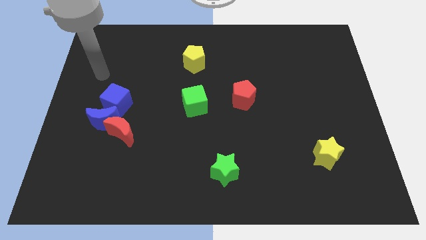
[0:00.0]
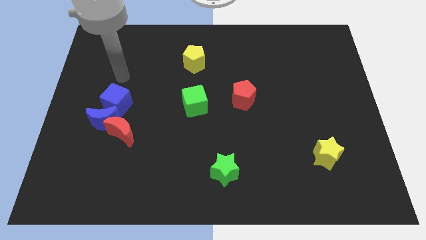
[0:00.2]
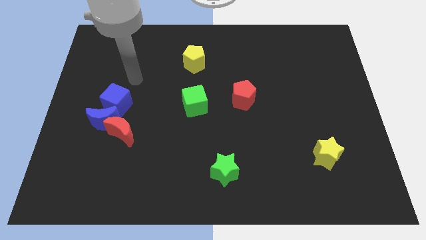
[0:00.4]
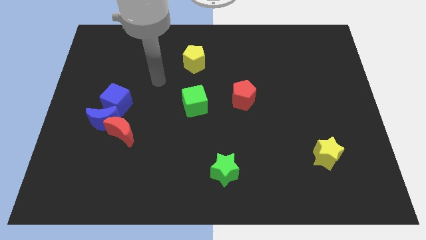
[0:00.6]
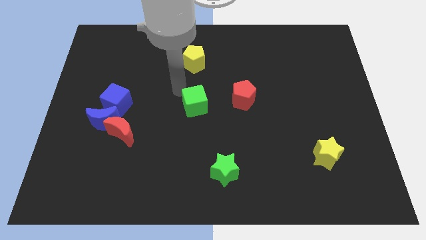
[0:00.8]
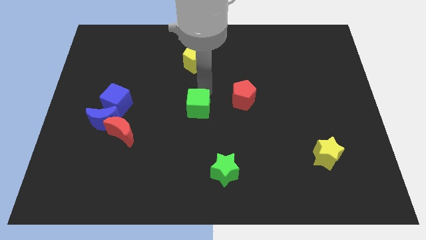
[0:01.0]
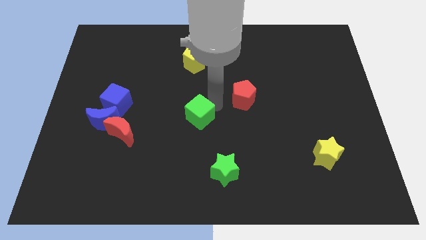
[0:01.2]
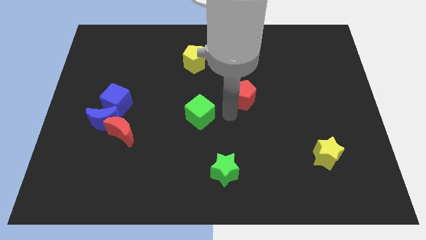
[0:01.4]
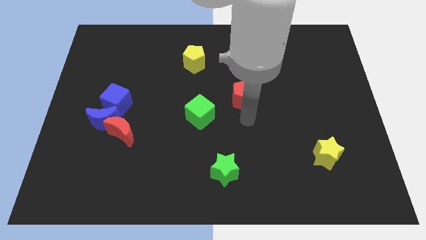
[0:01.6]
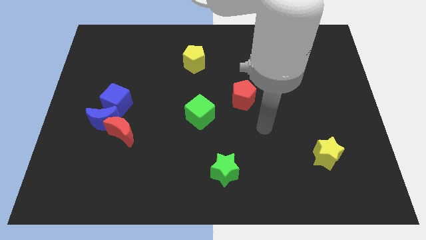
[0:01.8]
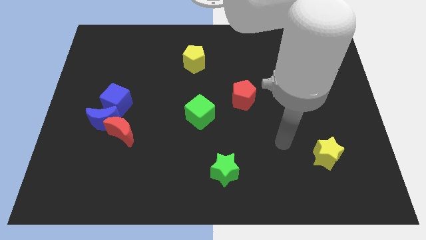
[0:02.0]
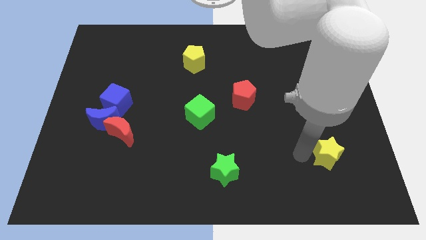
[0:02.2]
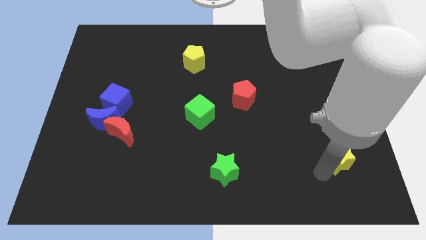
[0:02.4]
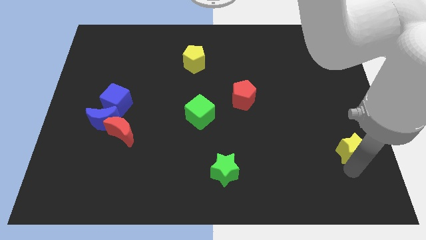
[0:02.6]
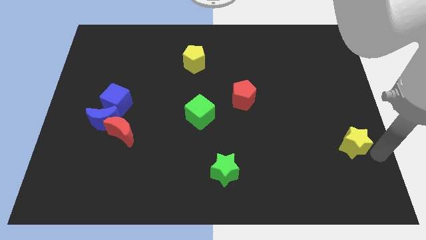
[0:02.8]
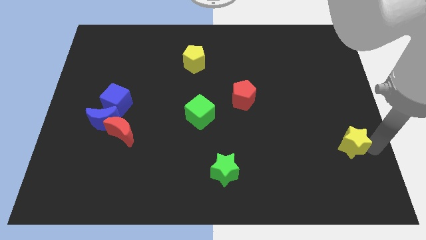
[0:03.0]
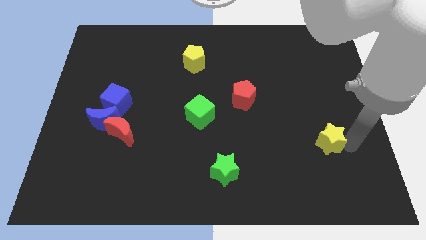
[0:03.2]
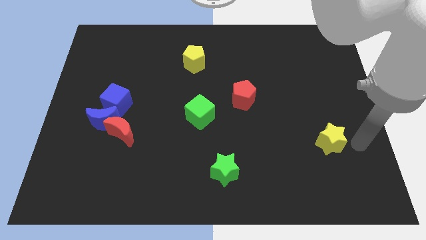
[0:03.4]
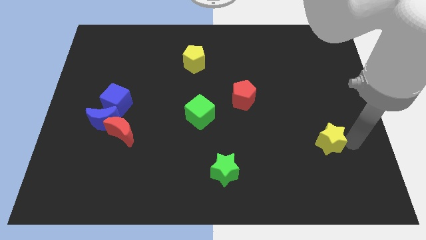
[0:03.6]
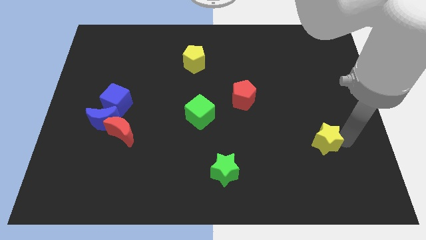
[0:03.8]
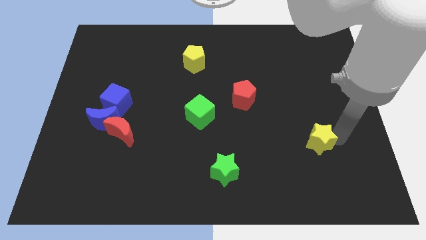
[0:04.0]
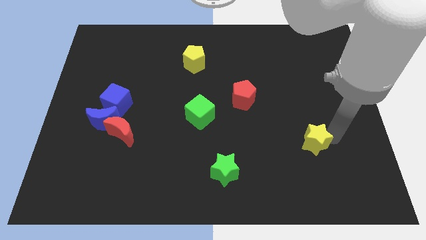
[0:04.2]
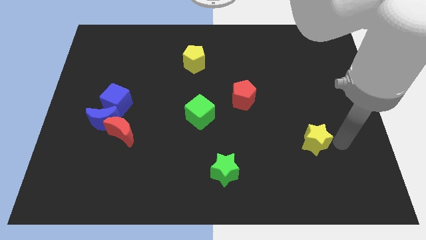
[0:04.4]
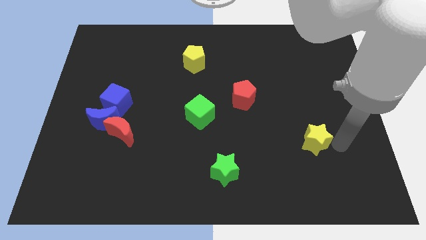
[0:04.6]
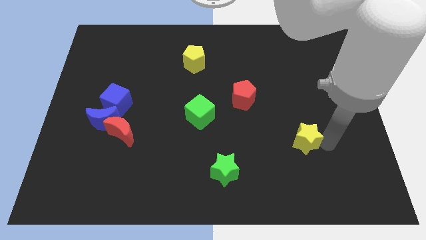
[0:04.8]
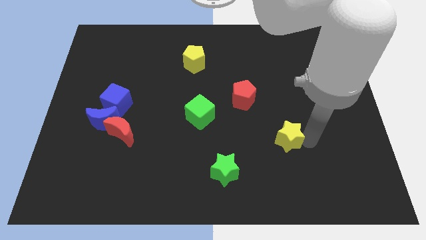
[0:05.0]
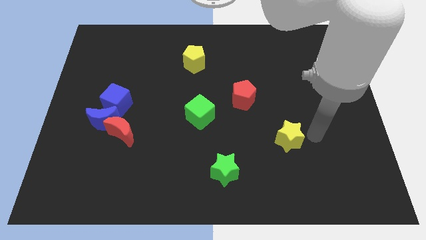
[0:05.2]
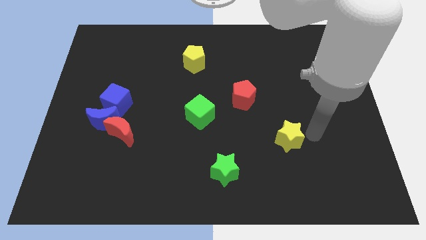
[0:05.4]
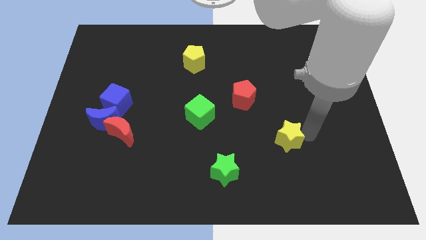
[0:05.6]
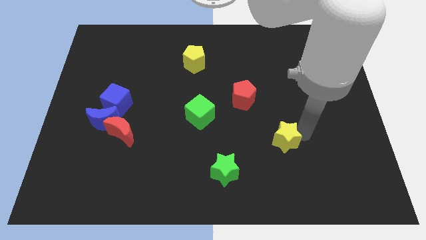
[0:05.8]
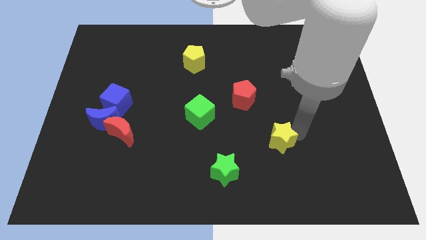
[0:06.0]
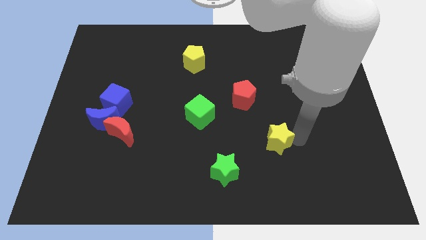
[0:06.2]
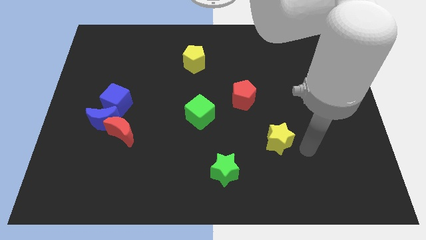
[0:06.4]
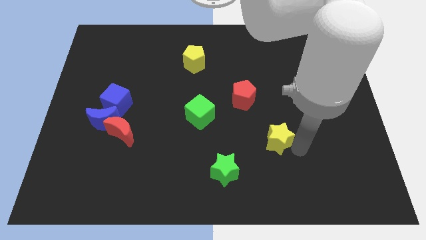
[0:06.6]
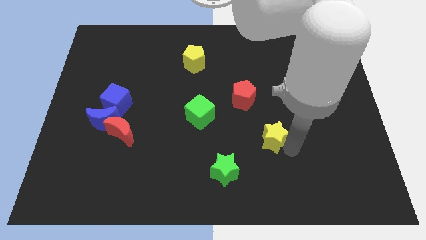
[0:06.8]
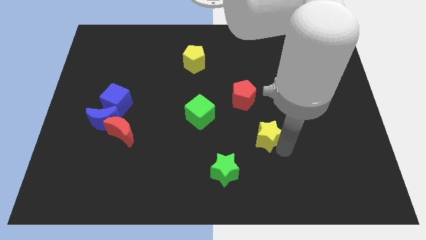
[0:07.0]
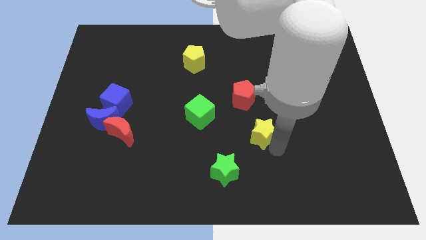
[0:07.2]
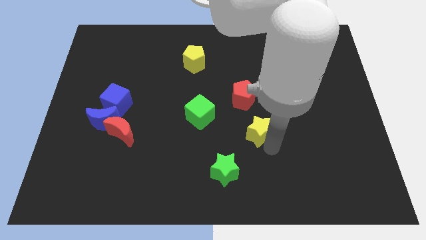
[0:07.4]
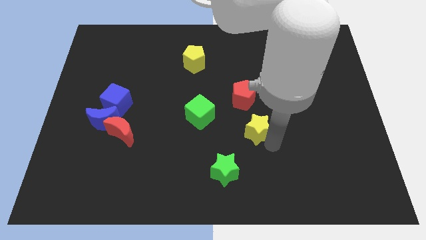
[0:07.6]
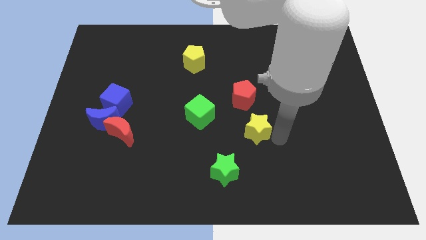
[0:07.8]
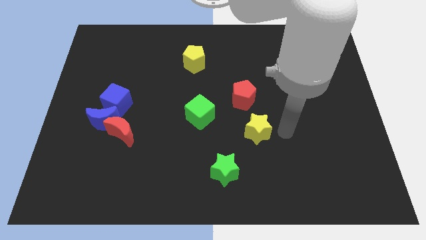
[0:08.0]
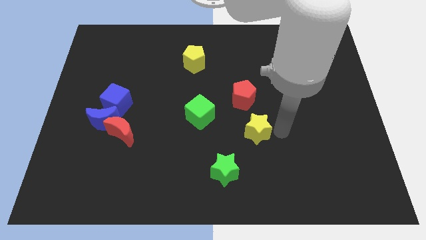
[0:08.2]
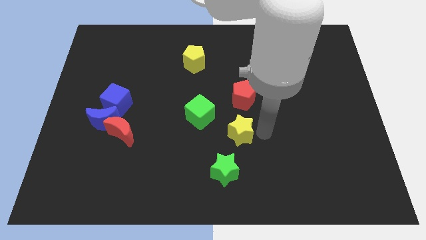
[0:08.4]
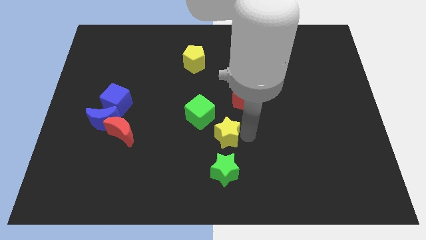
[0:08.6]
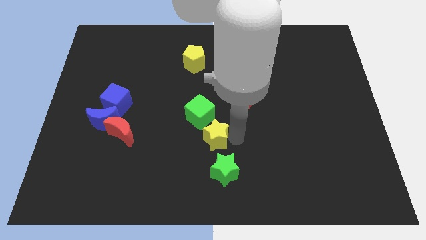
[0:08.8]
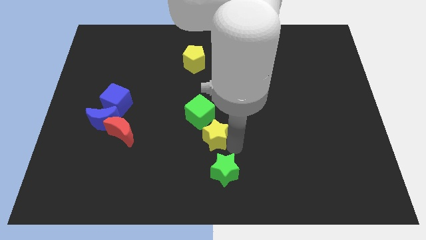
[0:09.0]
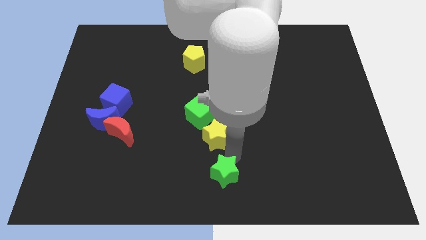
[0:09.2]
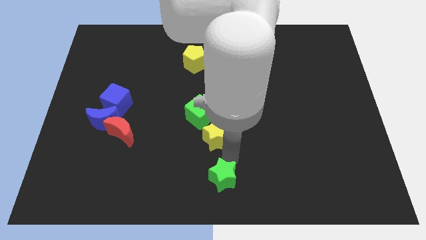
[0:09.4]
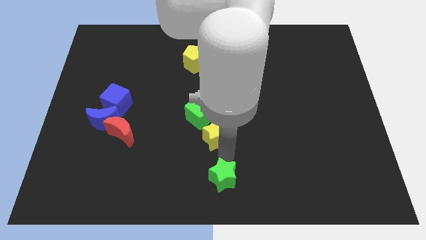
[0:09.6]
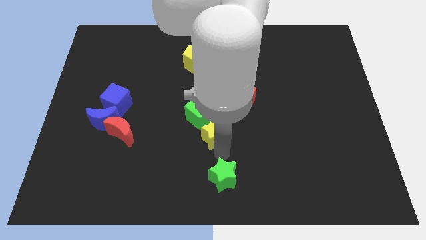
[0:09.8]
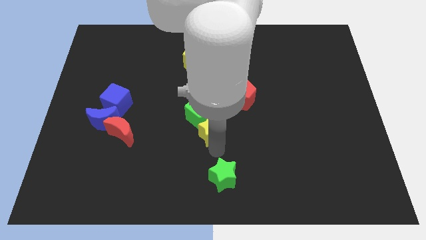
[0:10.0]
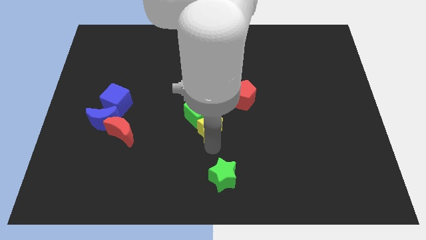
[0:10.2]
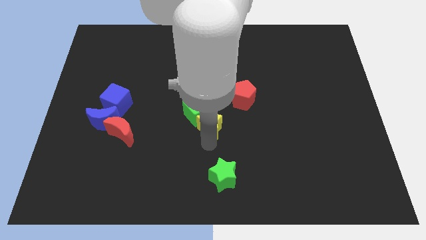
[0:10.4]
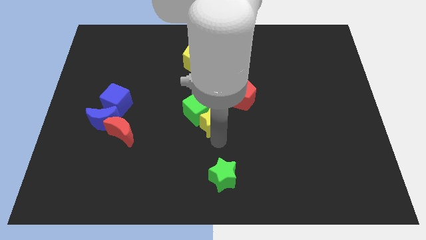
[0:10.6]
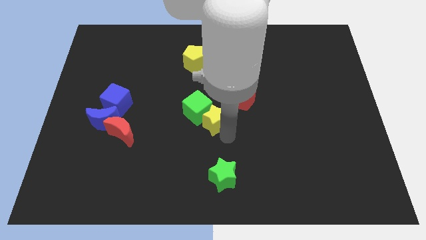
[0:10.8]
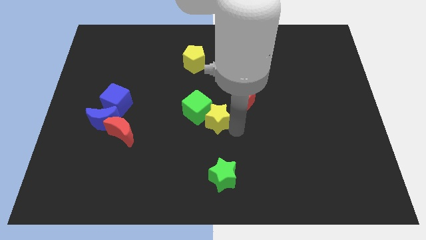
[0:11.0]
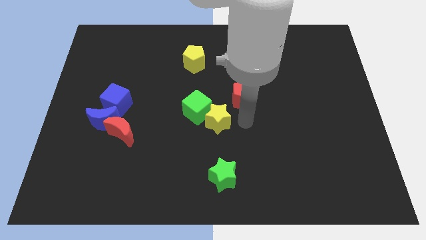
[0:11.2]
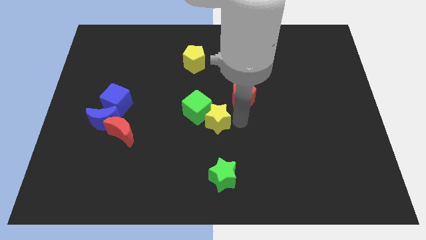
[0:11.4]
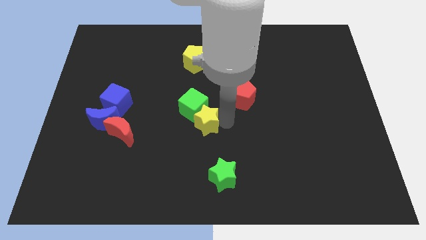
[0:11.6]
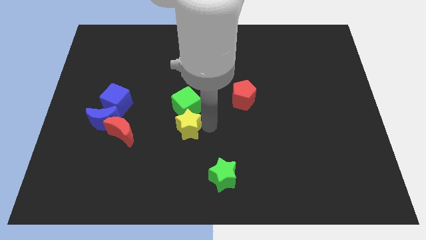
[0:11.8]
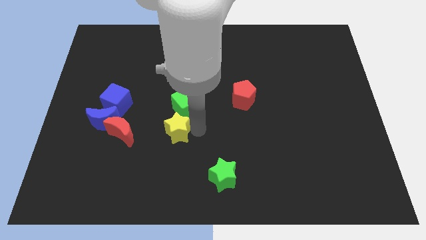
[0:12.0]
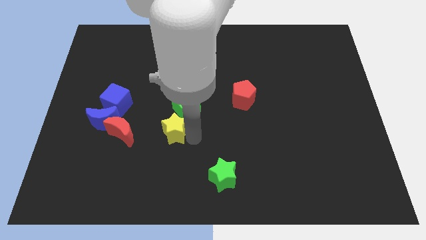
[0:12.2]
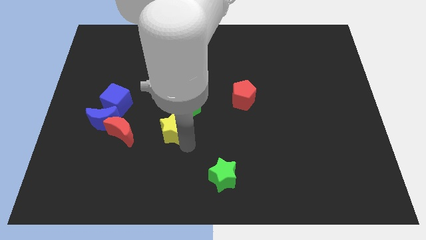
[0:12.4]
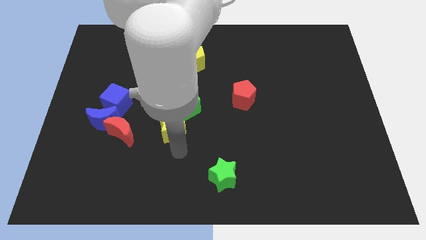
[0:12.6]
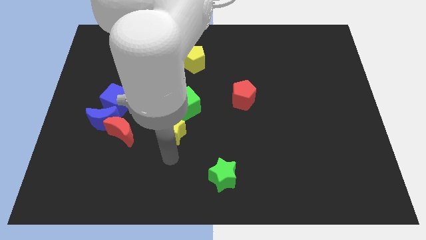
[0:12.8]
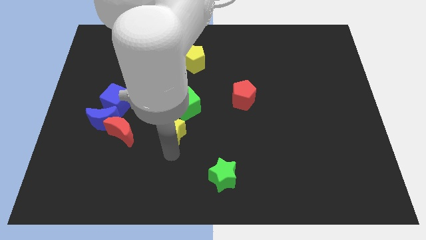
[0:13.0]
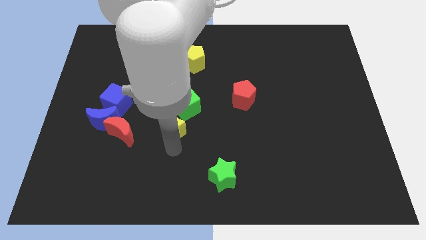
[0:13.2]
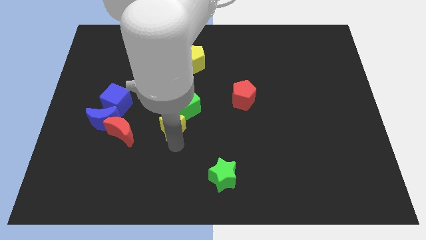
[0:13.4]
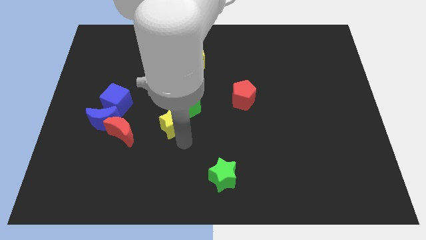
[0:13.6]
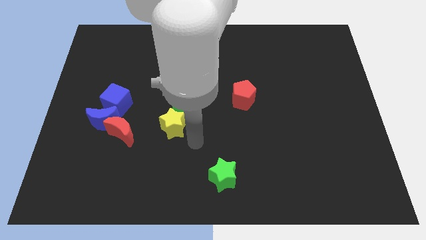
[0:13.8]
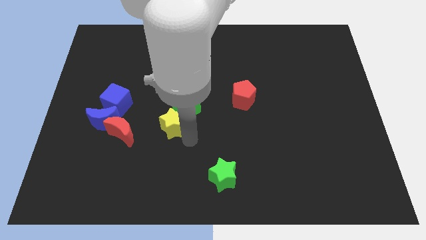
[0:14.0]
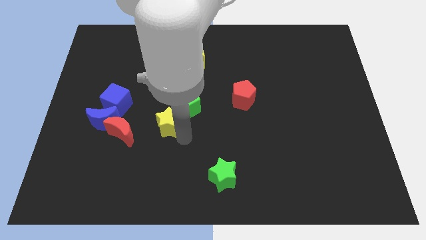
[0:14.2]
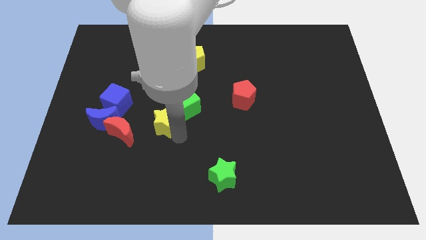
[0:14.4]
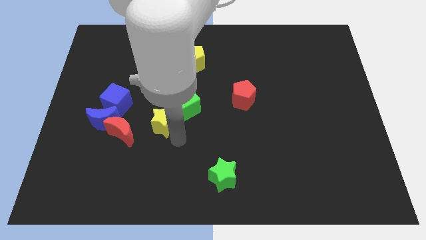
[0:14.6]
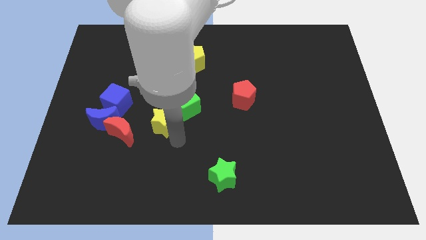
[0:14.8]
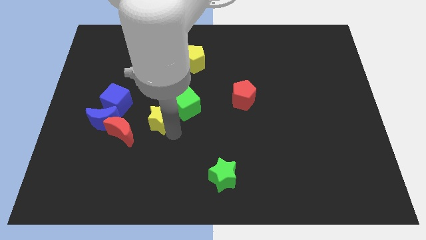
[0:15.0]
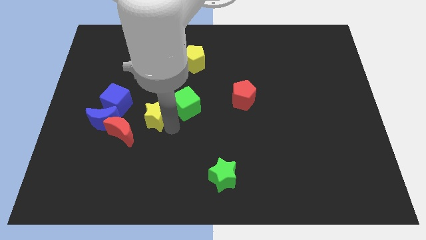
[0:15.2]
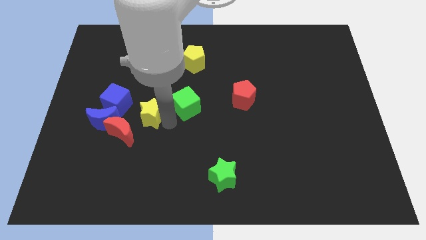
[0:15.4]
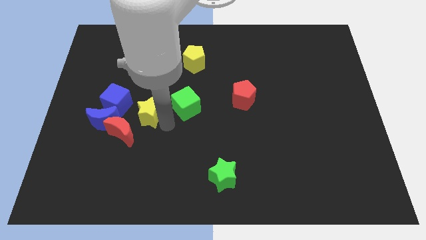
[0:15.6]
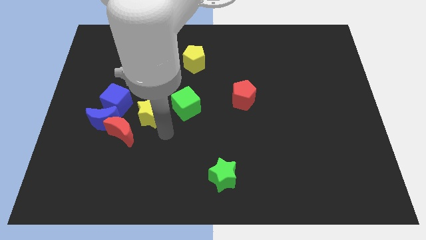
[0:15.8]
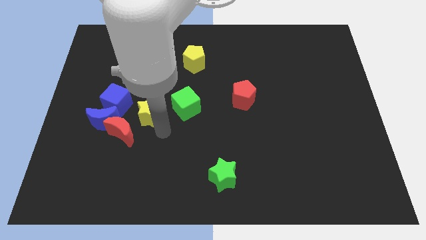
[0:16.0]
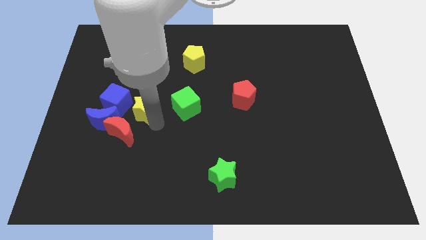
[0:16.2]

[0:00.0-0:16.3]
move the yellow star to the top side of the red moon
